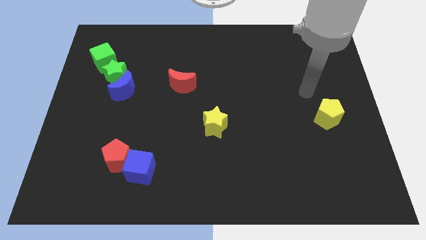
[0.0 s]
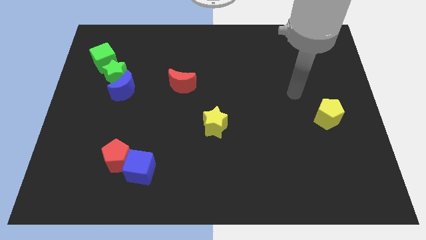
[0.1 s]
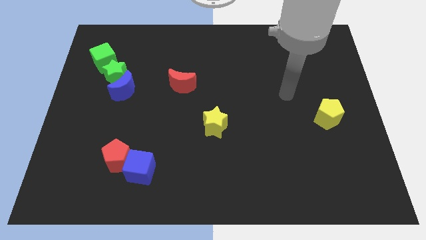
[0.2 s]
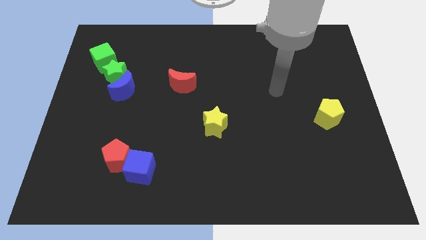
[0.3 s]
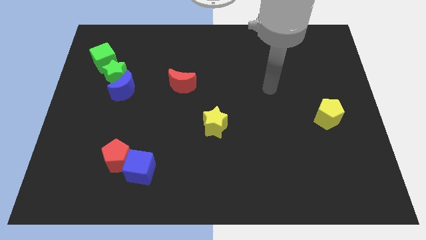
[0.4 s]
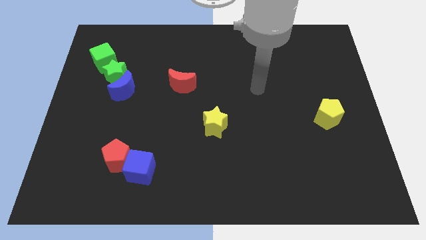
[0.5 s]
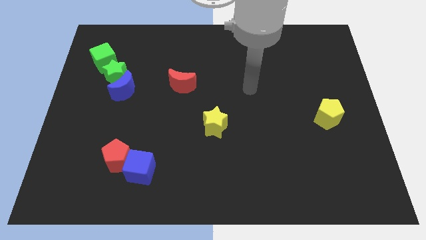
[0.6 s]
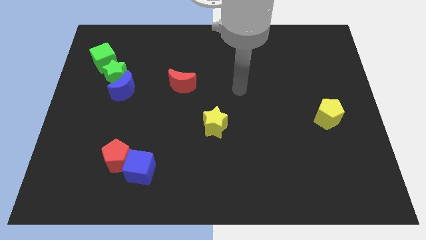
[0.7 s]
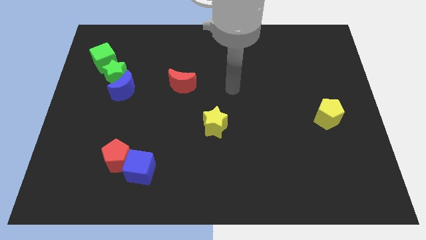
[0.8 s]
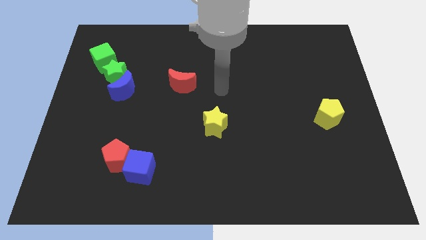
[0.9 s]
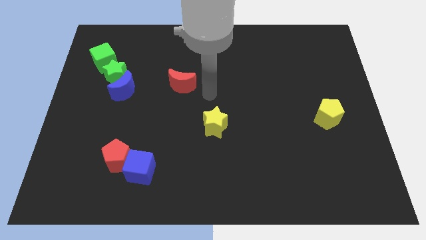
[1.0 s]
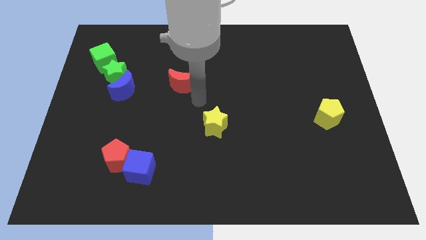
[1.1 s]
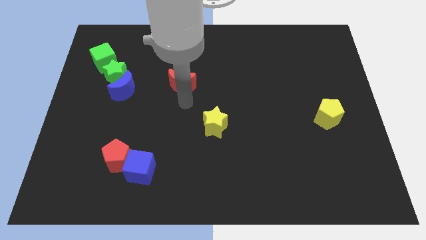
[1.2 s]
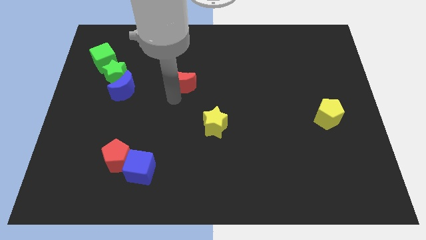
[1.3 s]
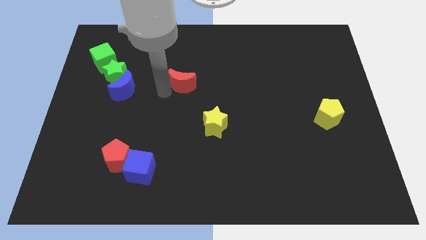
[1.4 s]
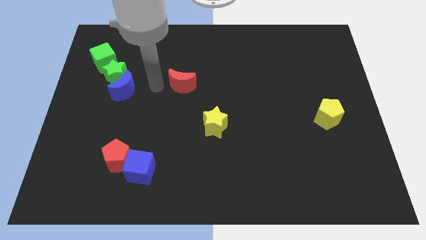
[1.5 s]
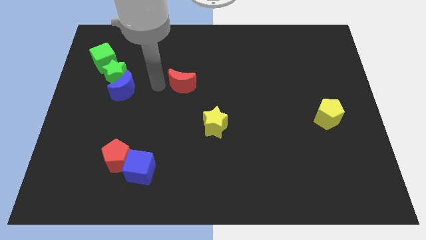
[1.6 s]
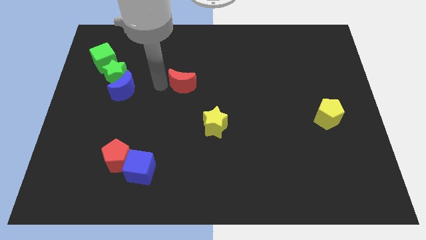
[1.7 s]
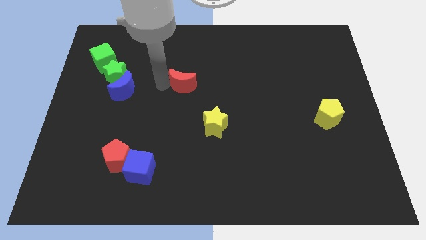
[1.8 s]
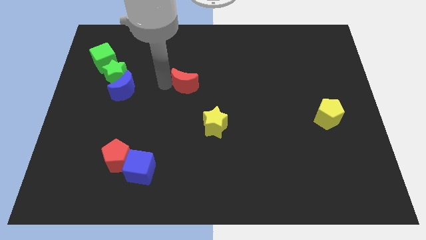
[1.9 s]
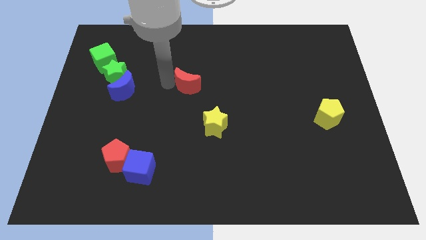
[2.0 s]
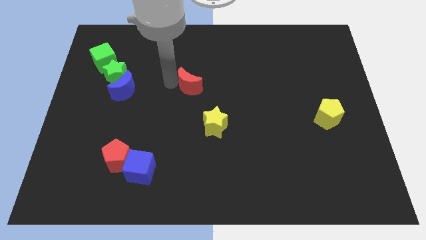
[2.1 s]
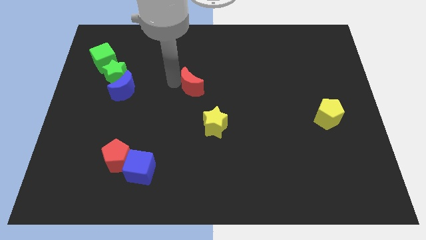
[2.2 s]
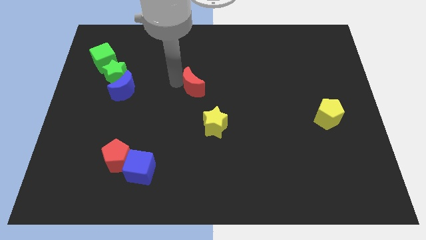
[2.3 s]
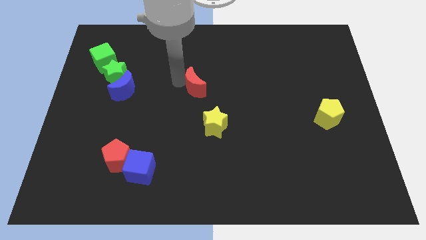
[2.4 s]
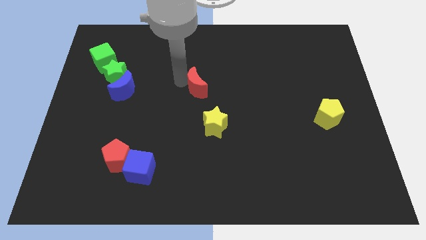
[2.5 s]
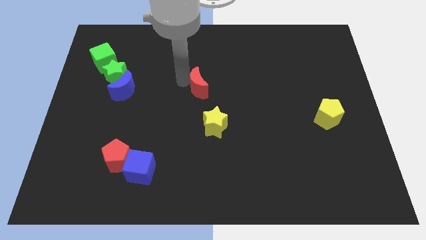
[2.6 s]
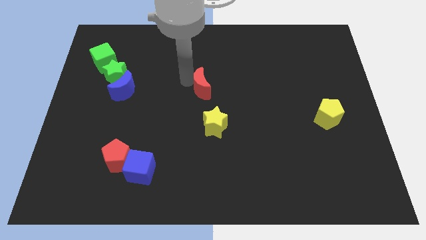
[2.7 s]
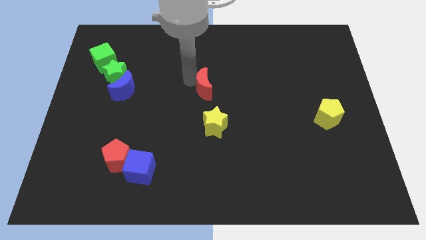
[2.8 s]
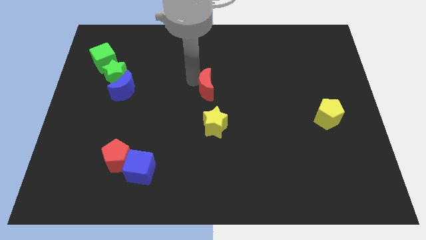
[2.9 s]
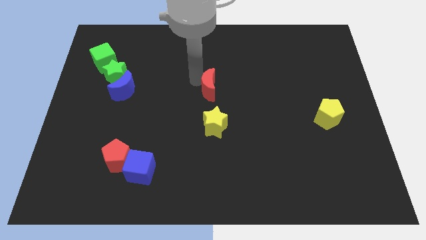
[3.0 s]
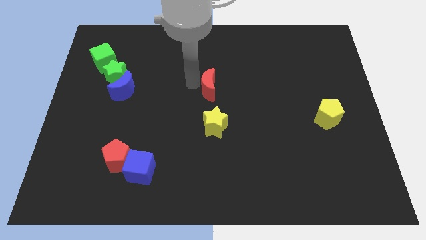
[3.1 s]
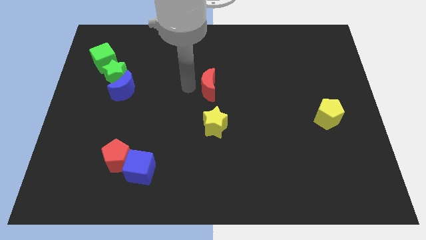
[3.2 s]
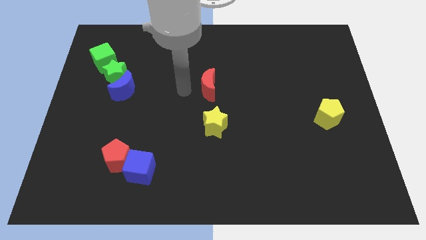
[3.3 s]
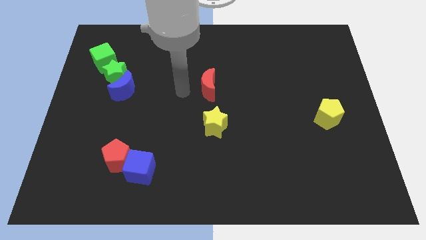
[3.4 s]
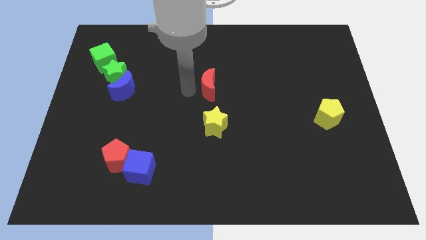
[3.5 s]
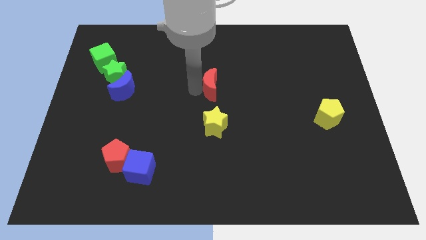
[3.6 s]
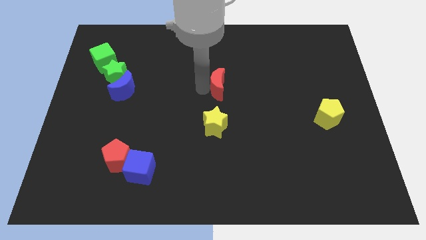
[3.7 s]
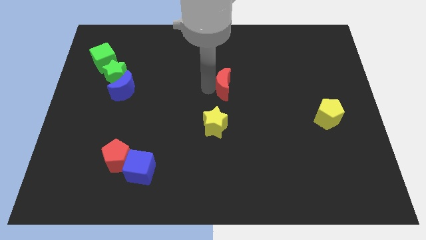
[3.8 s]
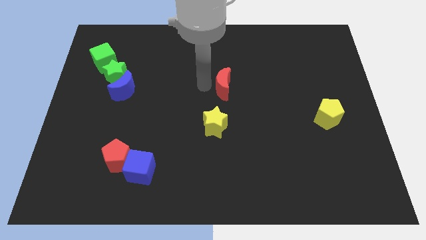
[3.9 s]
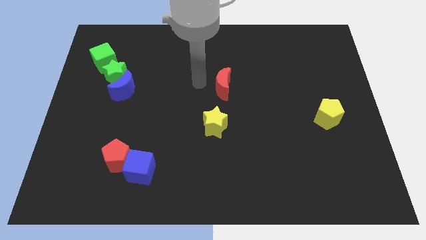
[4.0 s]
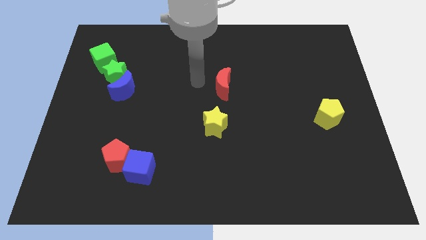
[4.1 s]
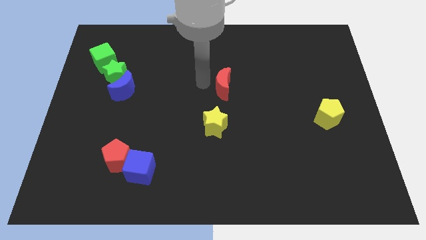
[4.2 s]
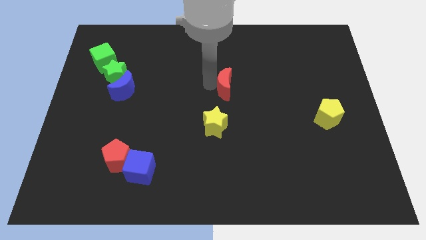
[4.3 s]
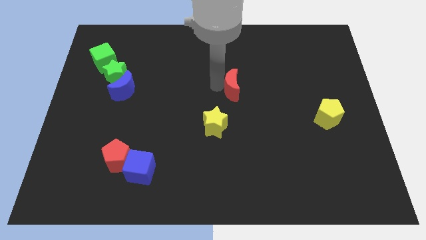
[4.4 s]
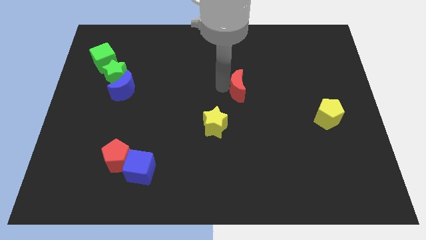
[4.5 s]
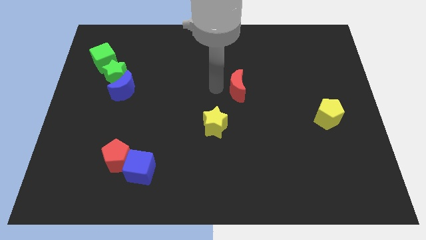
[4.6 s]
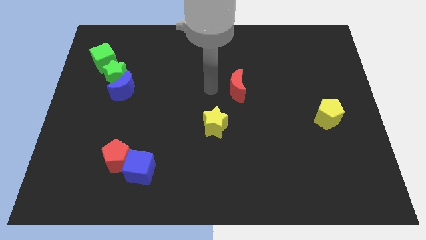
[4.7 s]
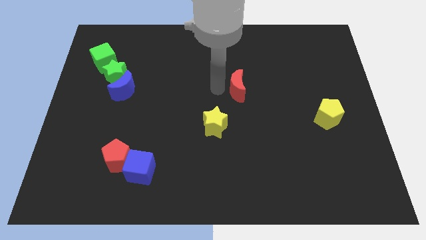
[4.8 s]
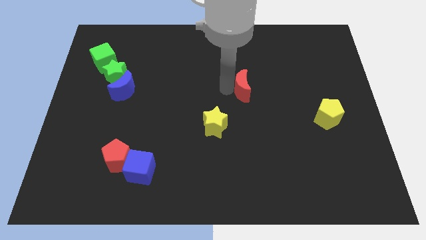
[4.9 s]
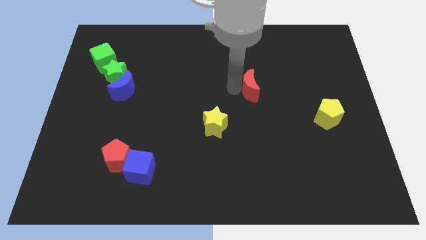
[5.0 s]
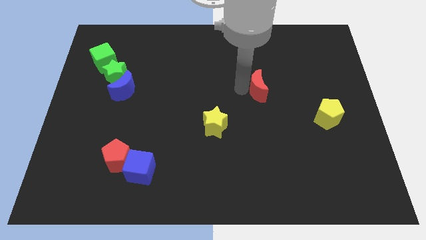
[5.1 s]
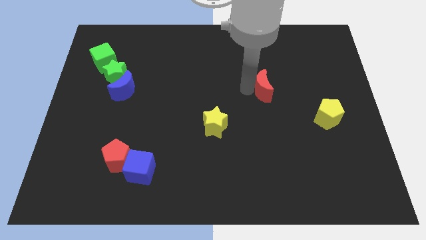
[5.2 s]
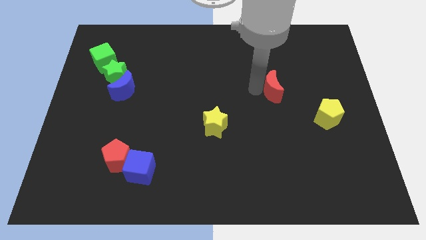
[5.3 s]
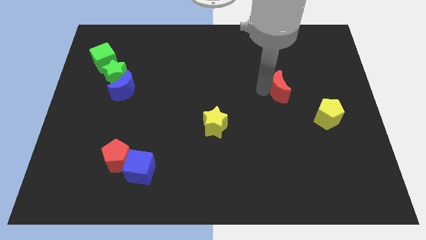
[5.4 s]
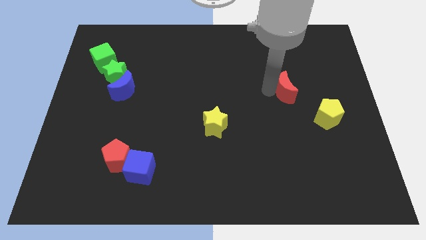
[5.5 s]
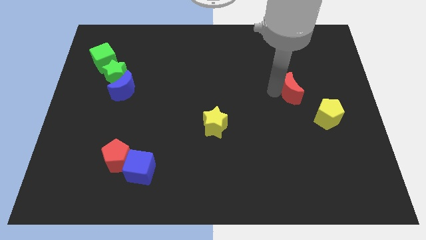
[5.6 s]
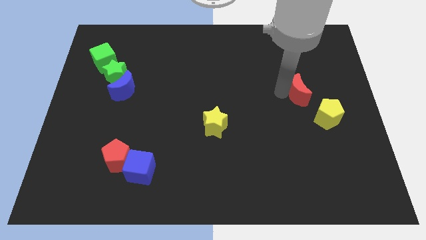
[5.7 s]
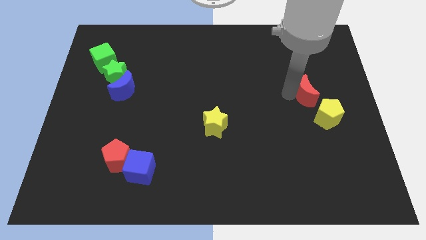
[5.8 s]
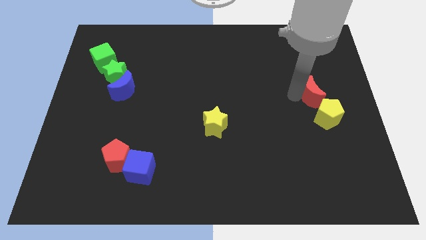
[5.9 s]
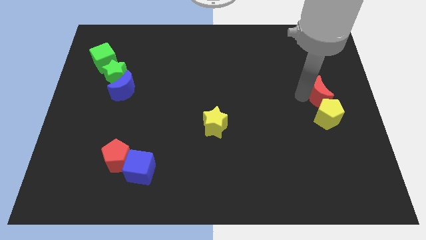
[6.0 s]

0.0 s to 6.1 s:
slide the red moon to the right side of the board

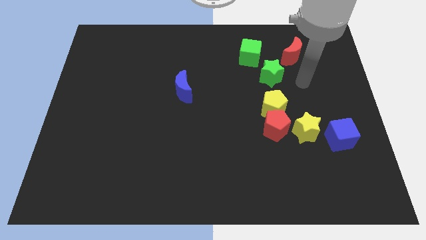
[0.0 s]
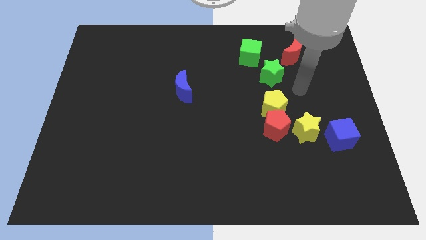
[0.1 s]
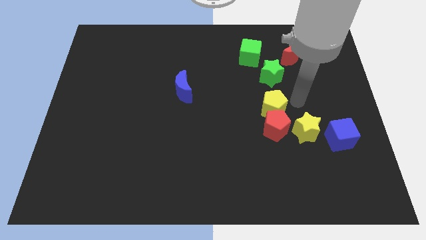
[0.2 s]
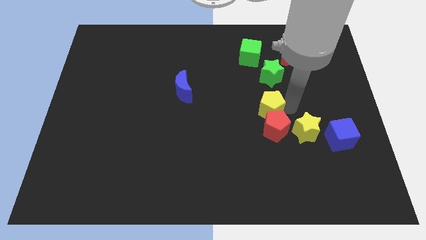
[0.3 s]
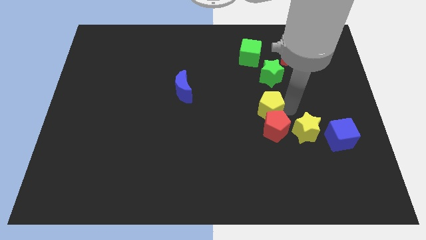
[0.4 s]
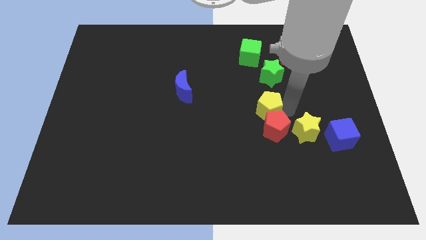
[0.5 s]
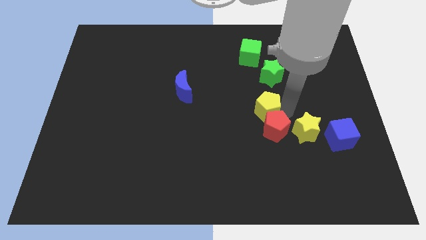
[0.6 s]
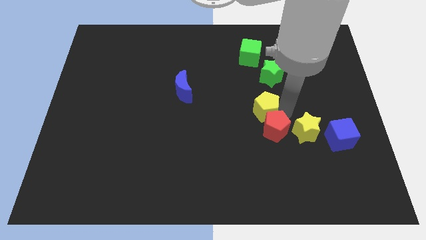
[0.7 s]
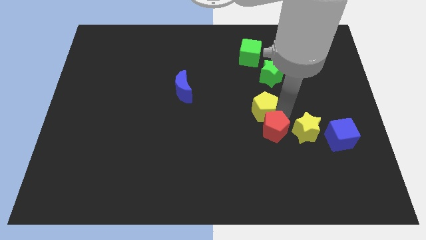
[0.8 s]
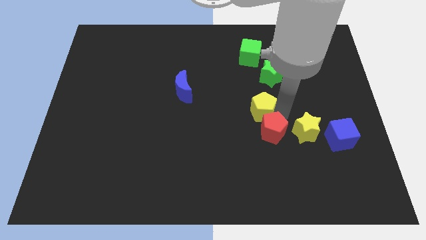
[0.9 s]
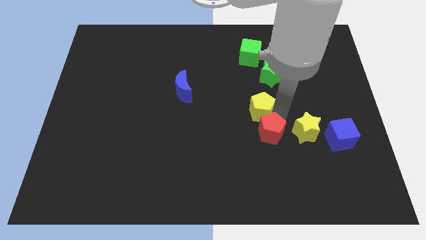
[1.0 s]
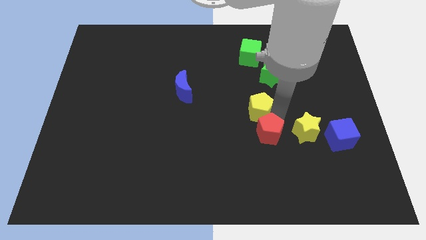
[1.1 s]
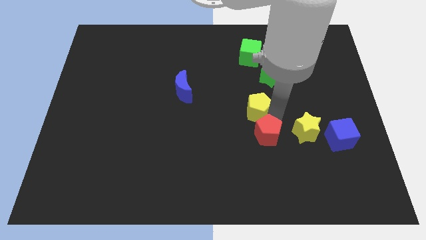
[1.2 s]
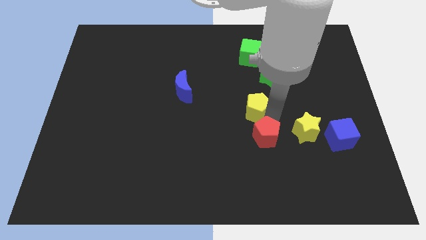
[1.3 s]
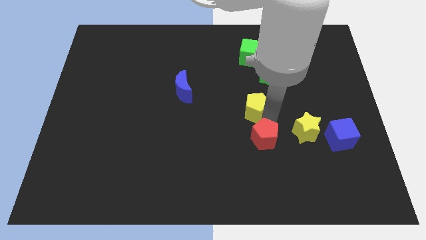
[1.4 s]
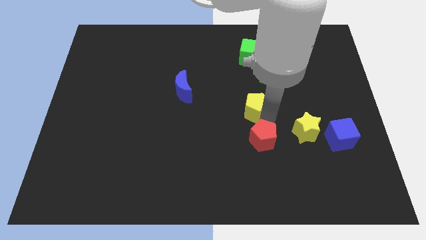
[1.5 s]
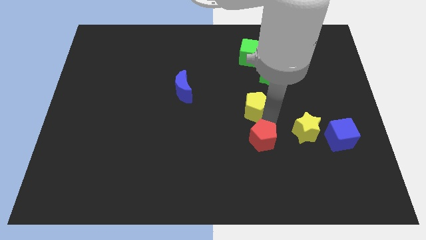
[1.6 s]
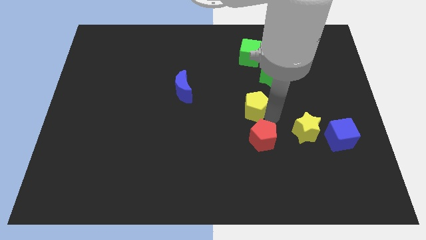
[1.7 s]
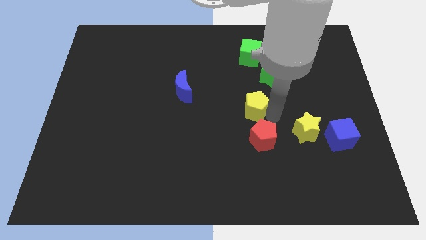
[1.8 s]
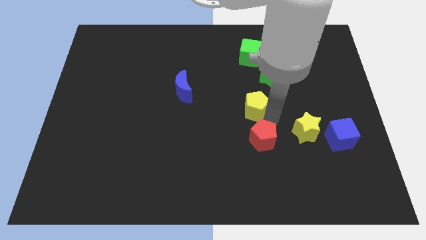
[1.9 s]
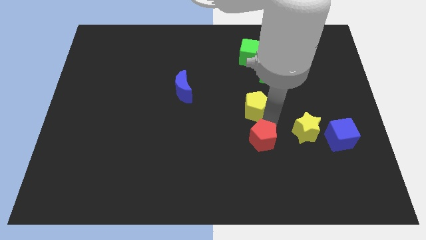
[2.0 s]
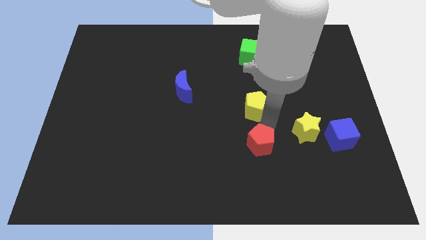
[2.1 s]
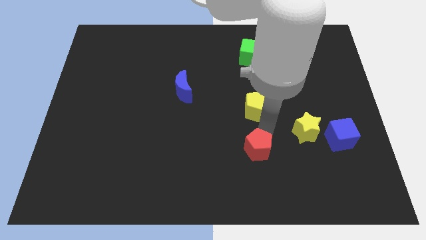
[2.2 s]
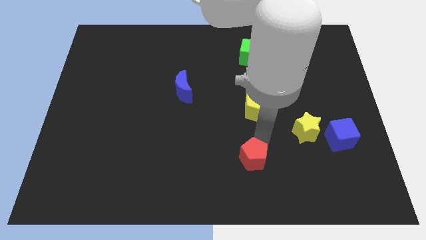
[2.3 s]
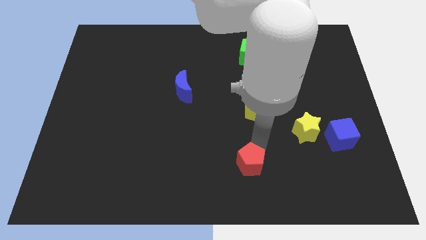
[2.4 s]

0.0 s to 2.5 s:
slide the red pentagon to the bottom
